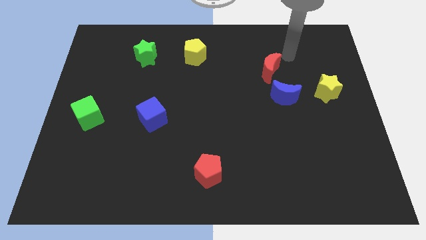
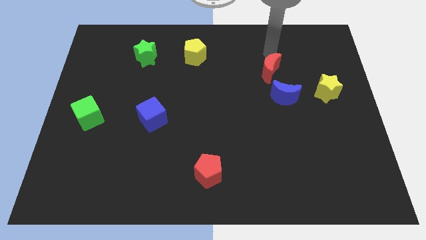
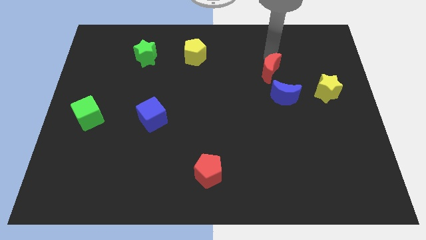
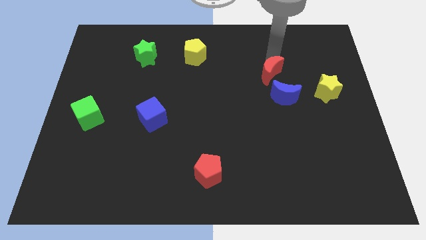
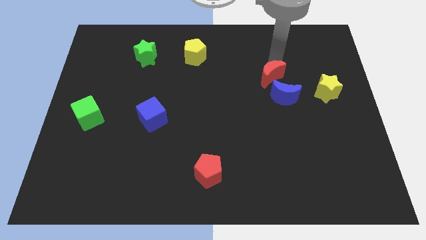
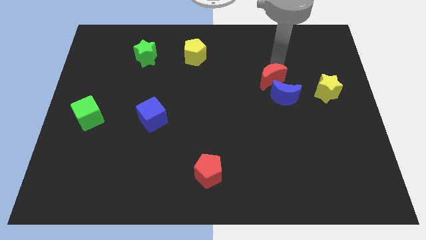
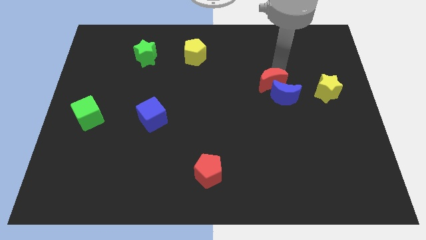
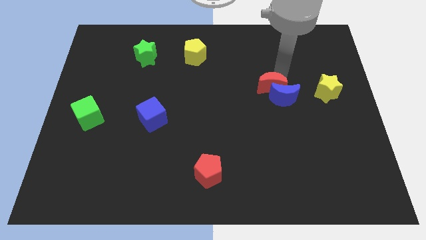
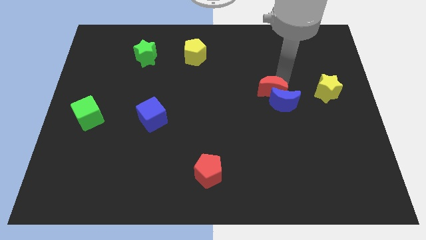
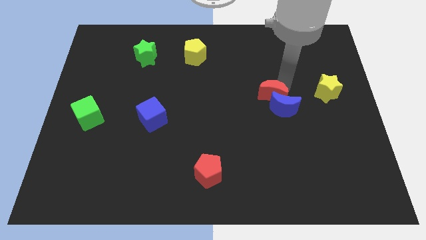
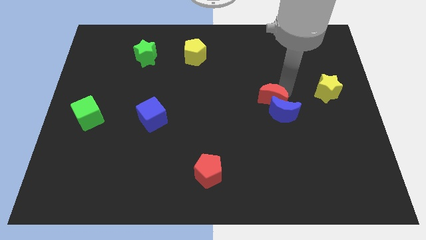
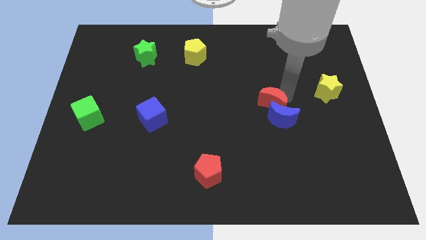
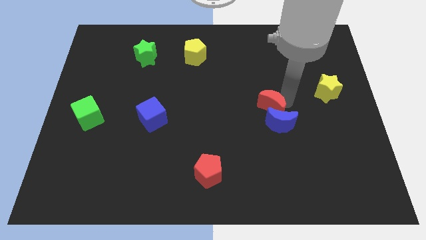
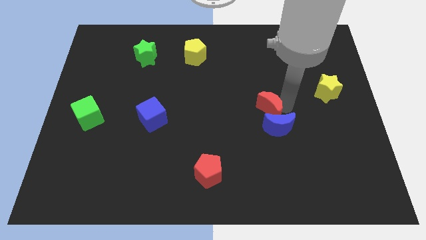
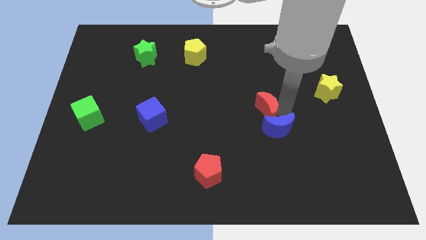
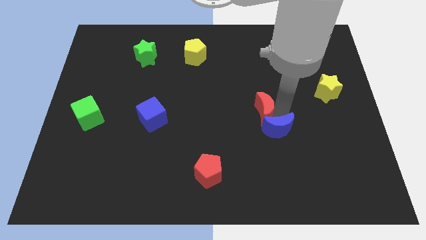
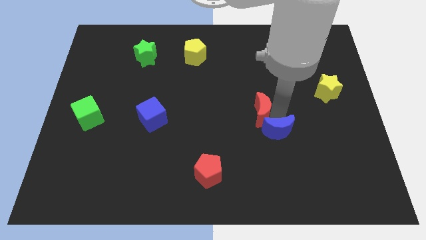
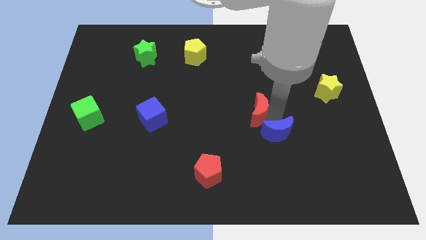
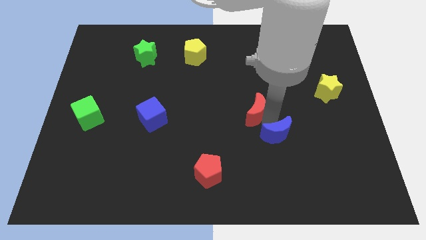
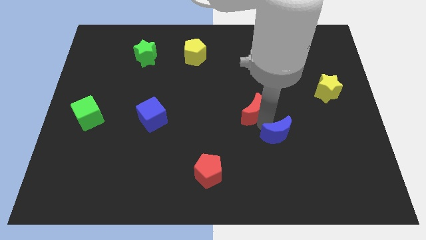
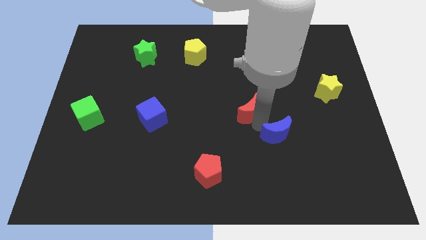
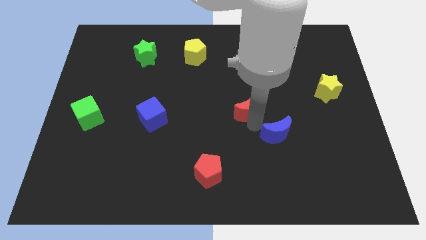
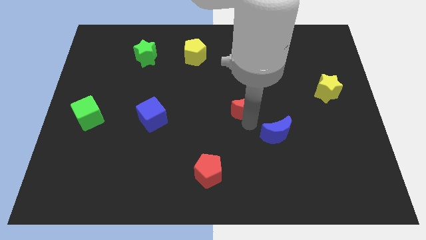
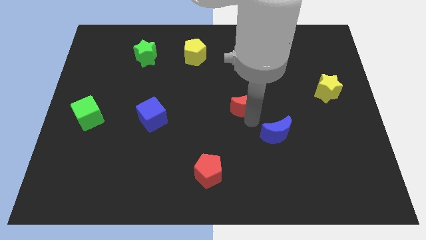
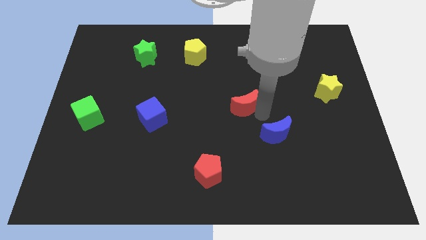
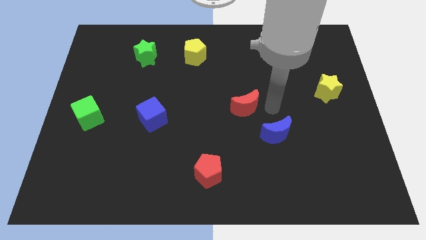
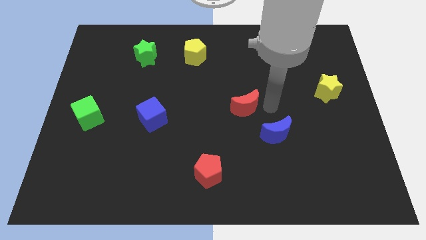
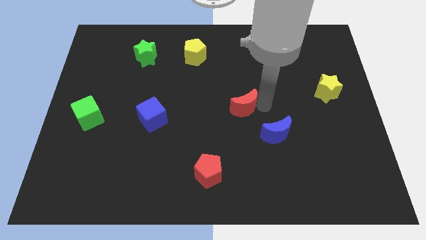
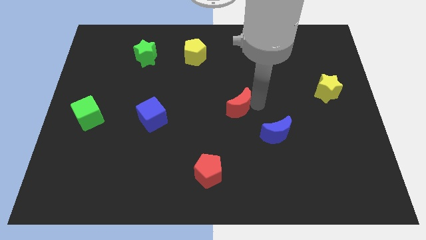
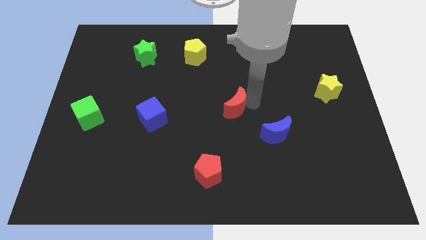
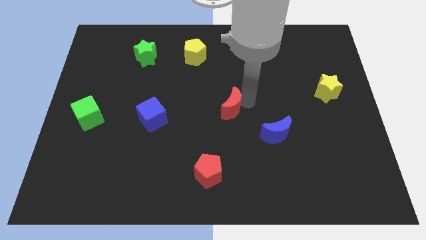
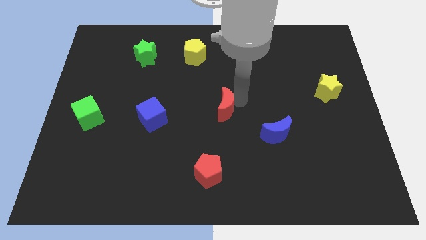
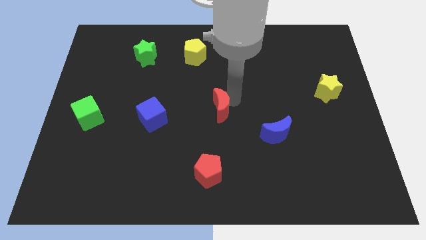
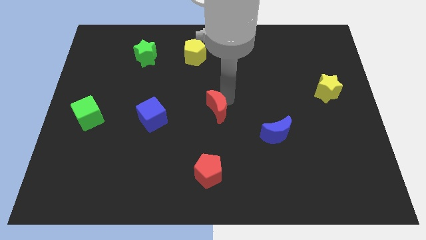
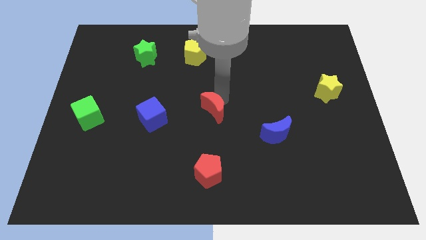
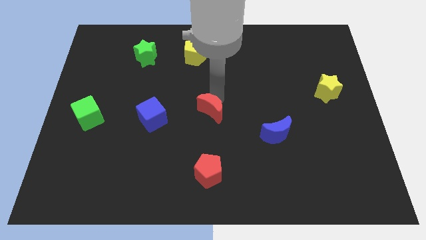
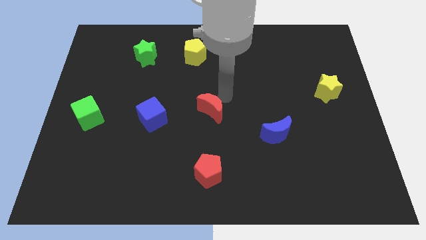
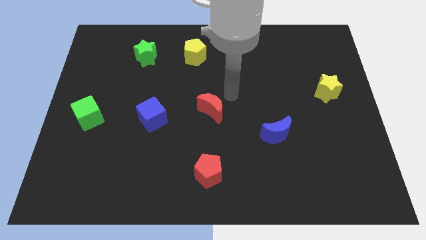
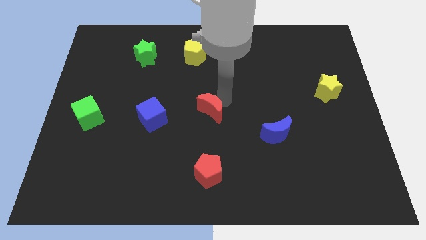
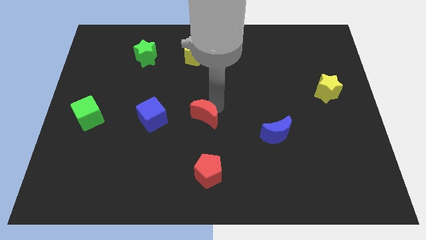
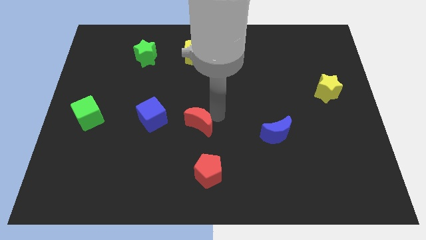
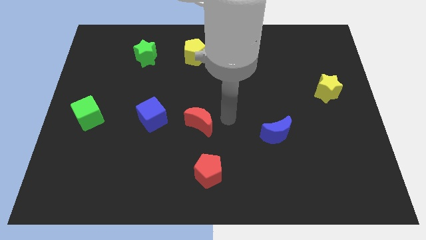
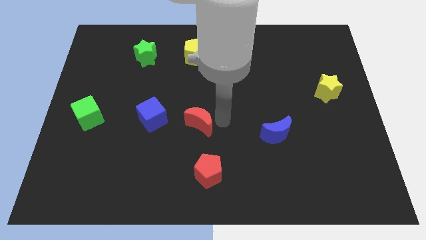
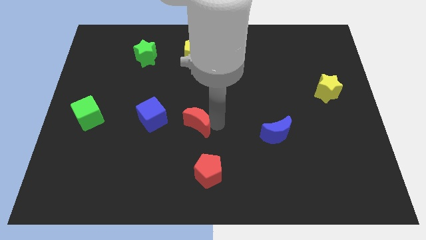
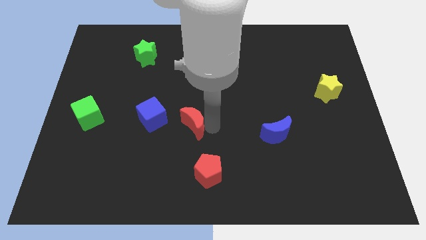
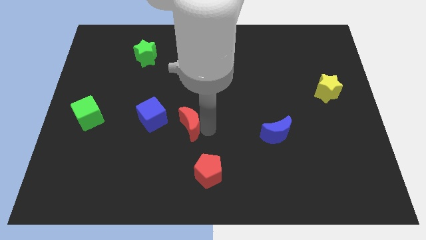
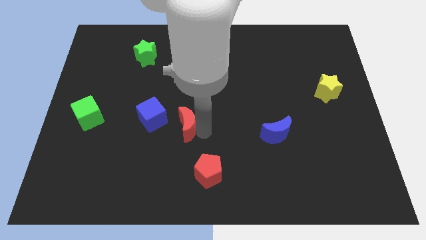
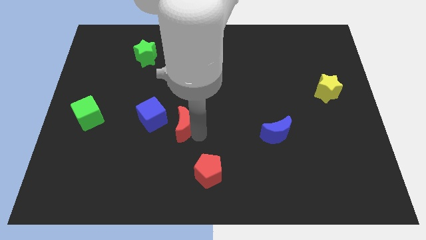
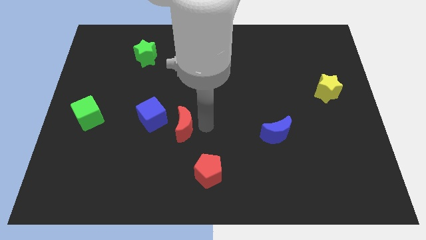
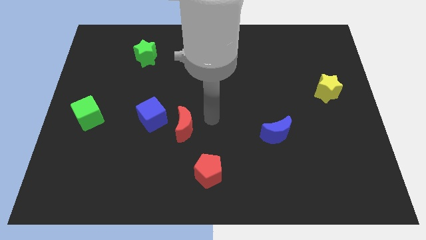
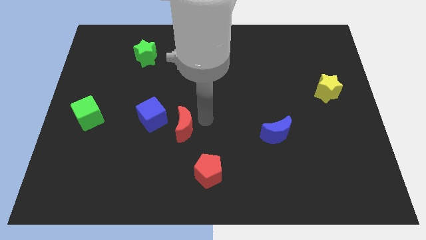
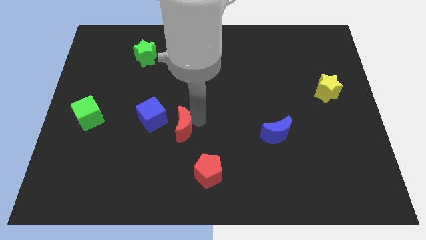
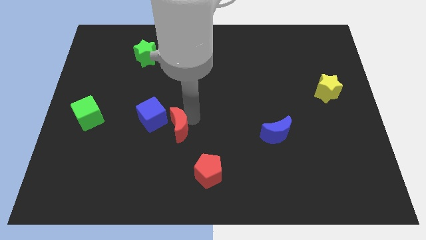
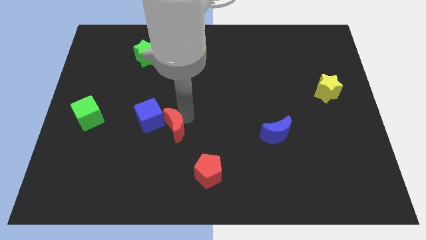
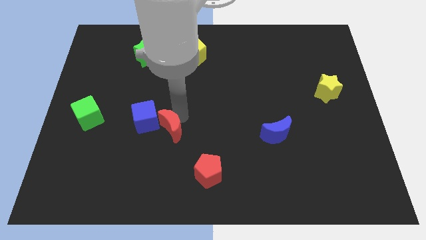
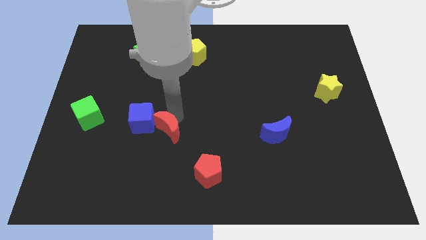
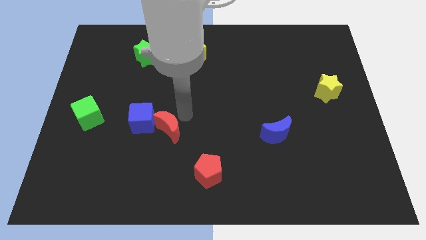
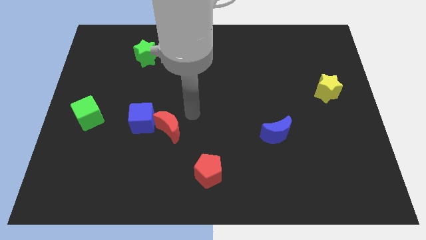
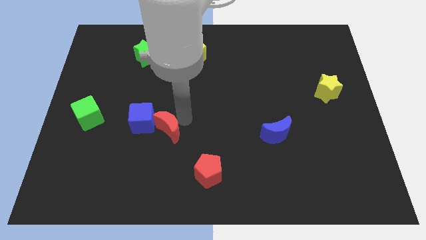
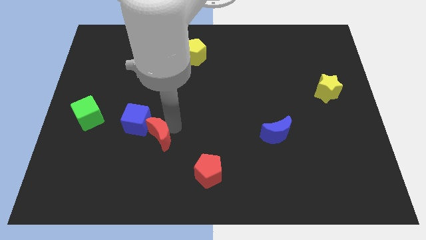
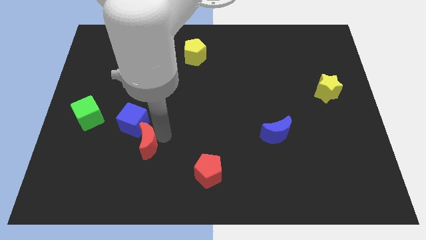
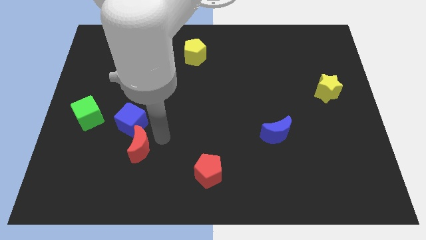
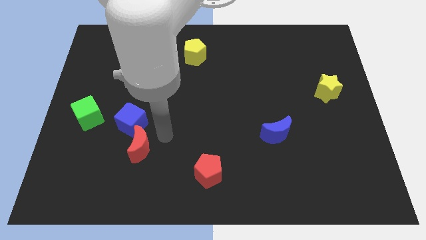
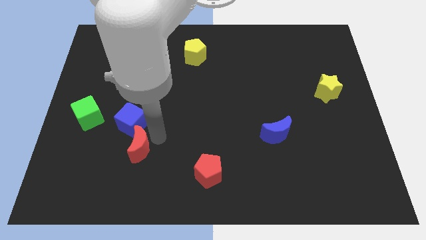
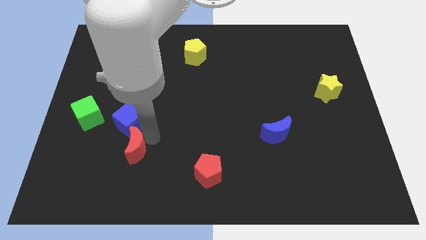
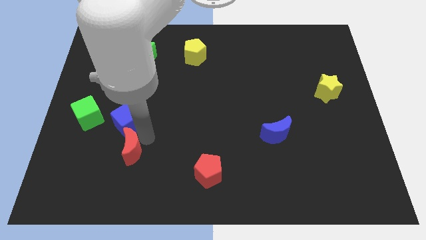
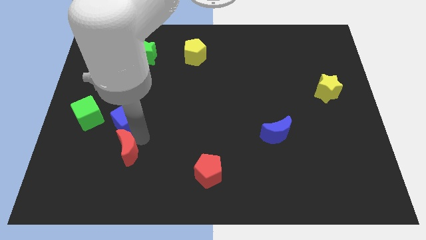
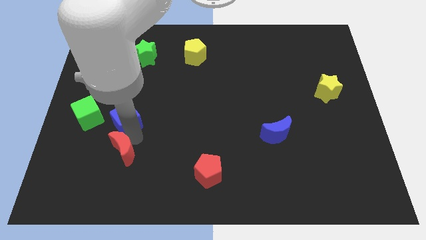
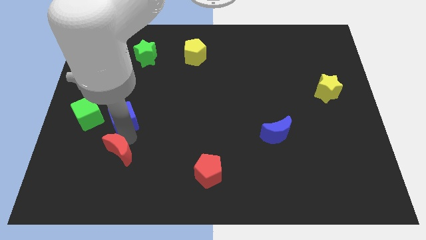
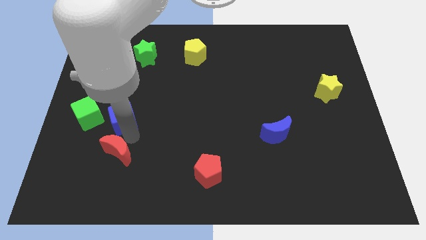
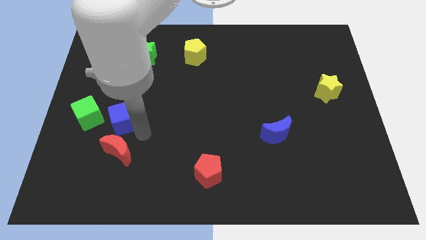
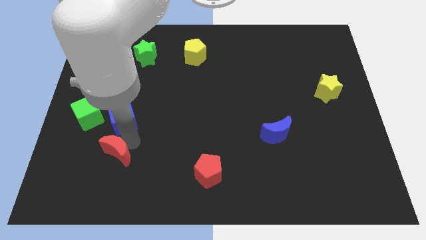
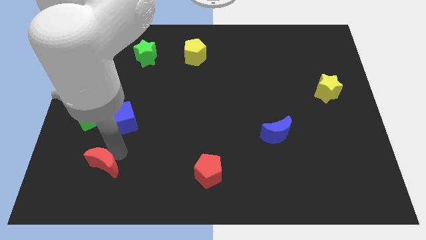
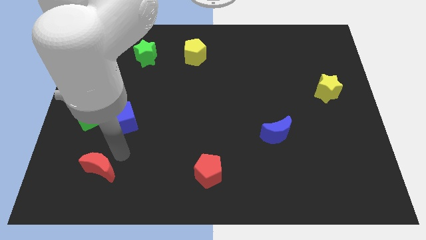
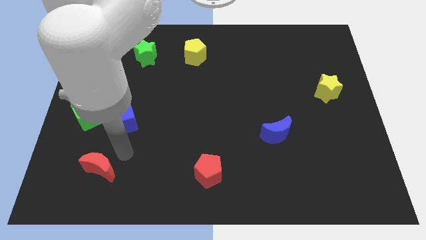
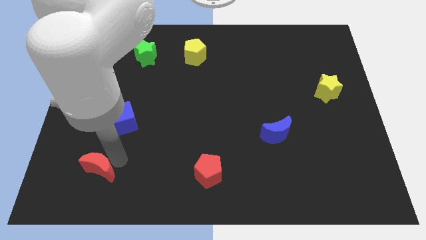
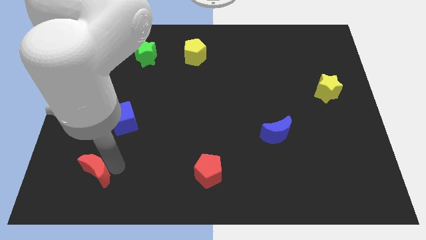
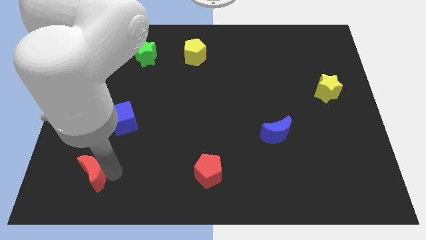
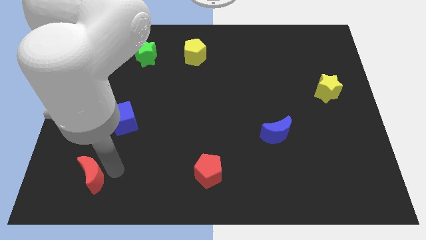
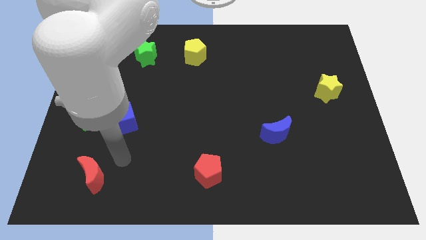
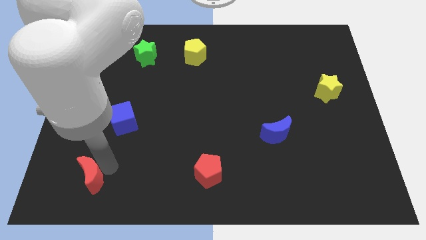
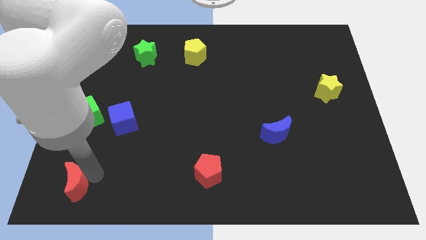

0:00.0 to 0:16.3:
move the red moon to the bottom left
